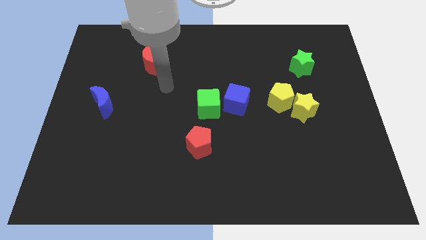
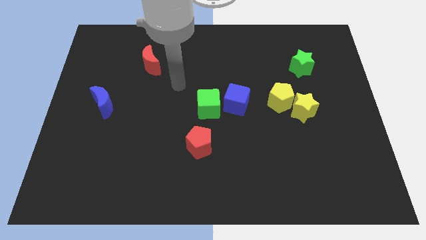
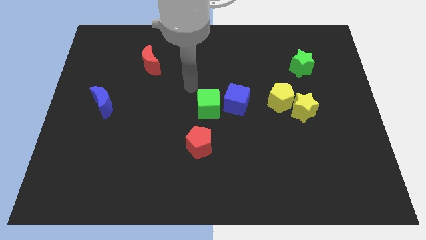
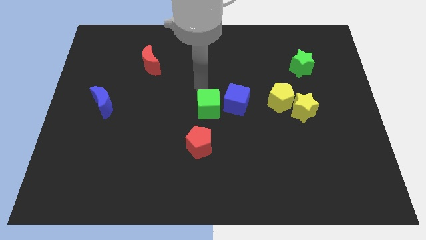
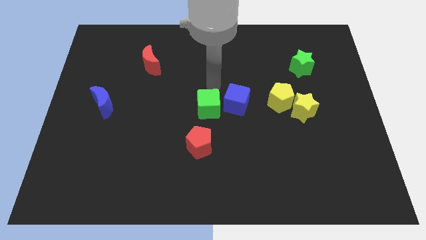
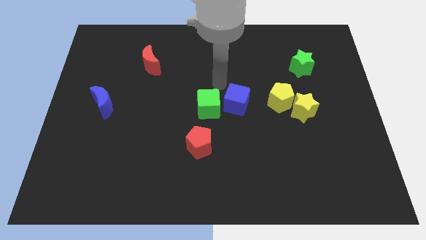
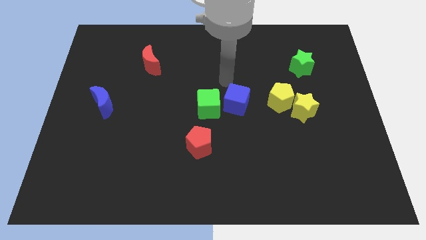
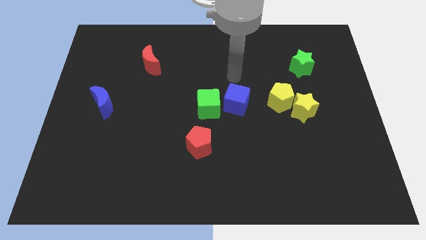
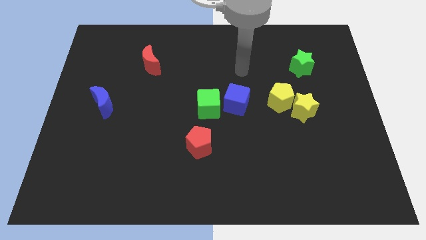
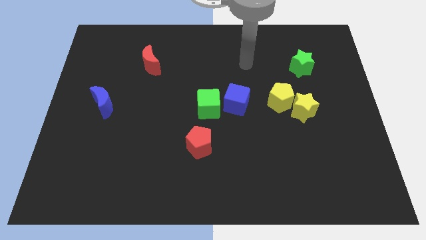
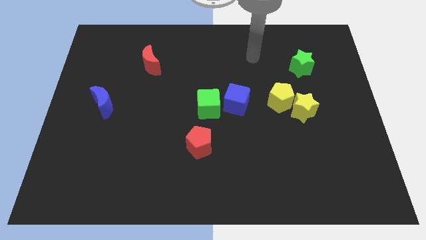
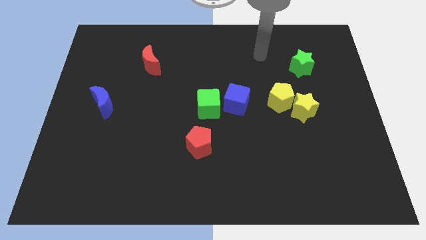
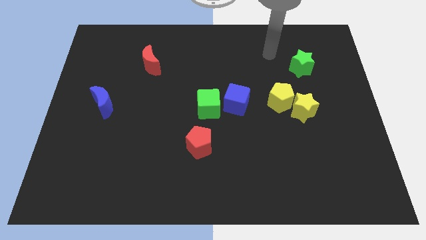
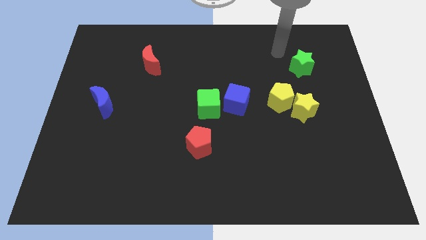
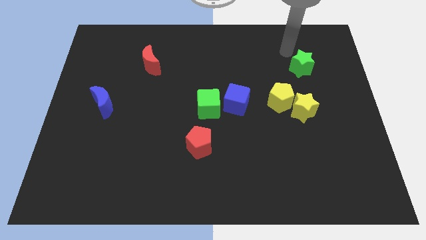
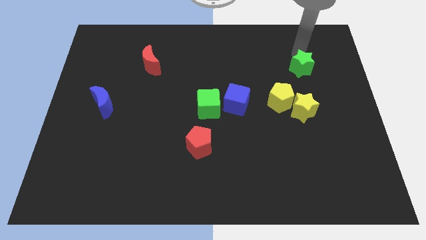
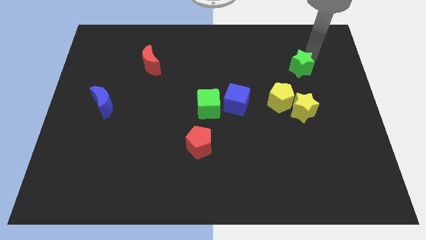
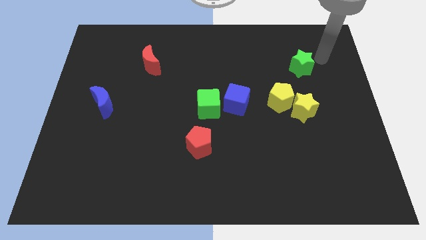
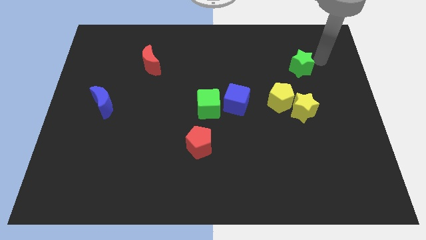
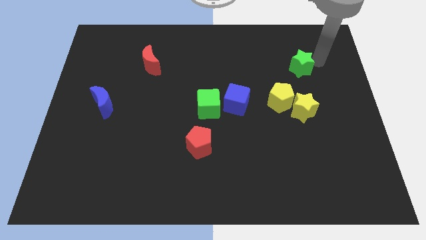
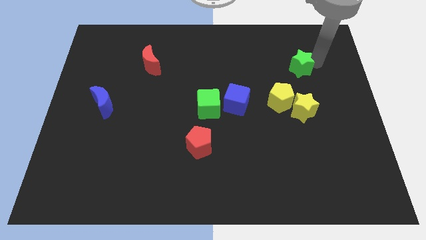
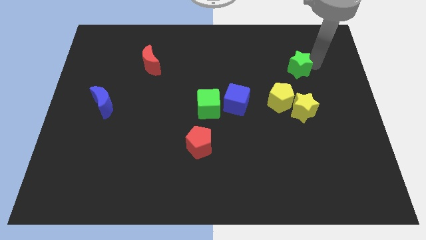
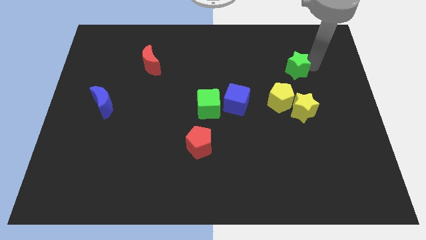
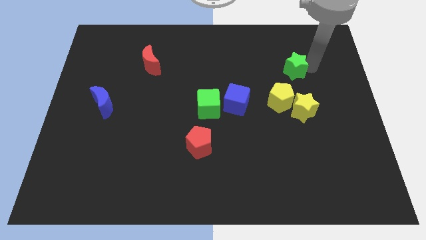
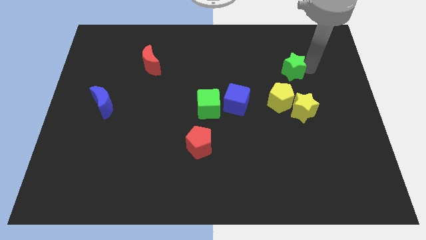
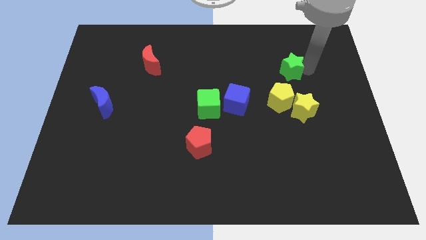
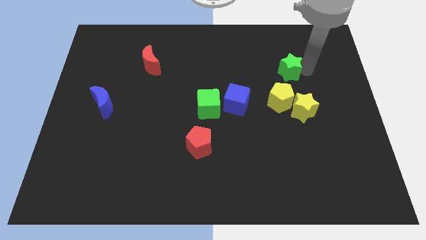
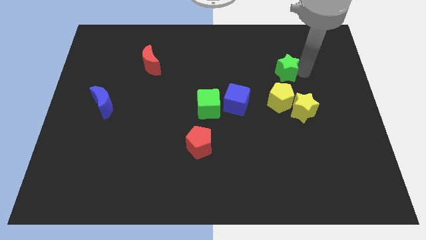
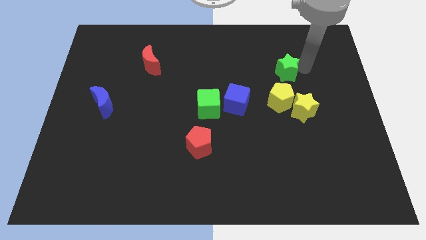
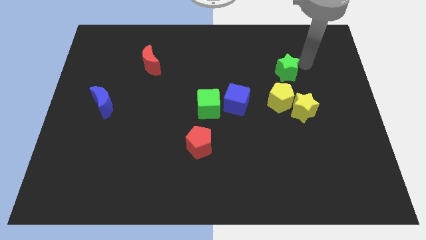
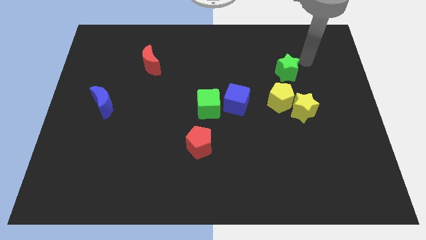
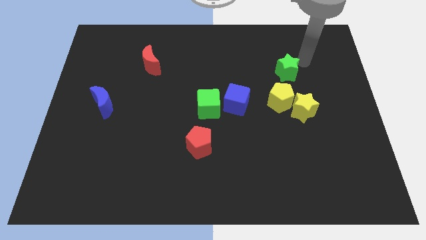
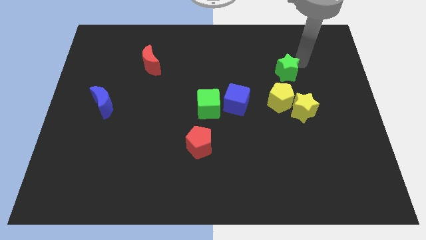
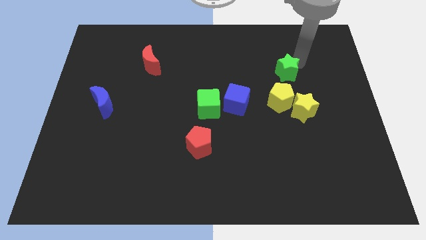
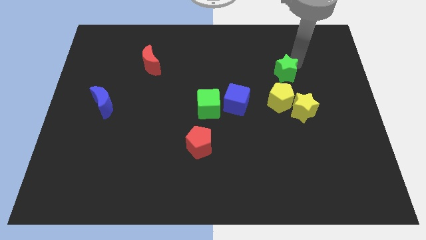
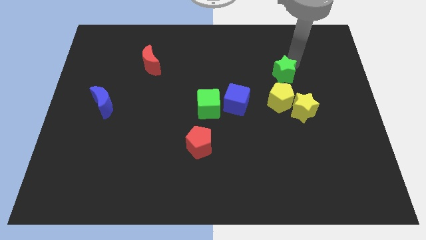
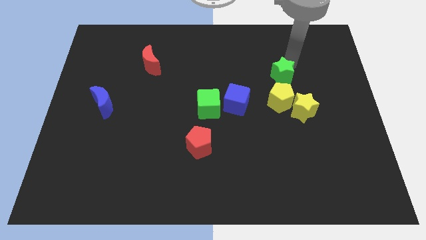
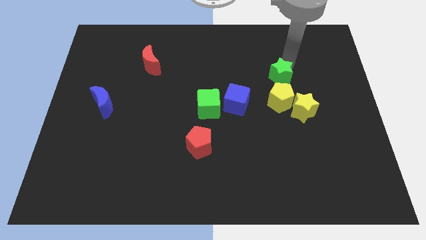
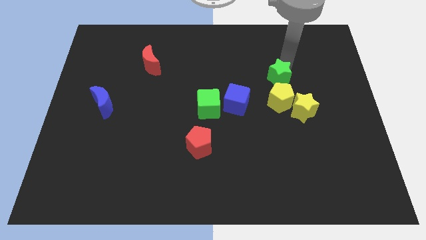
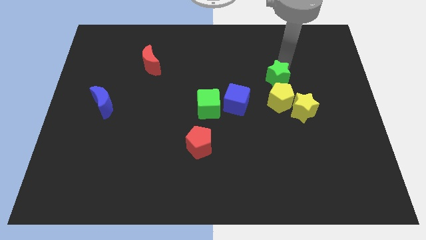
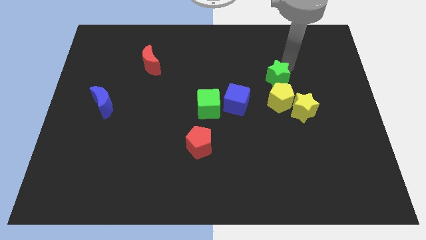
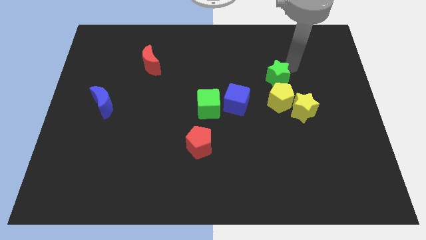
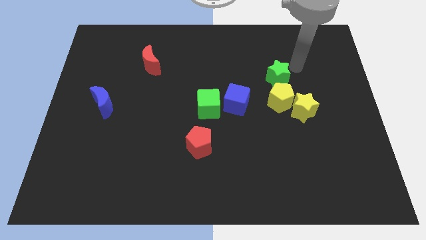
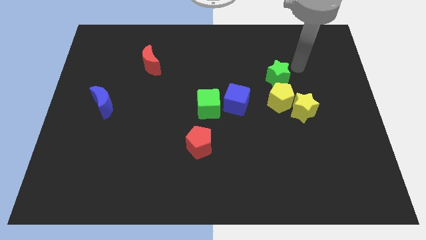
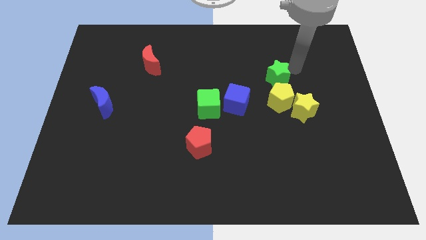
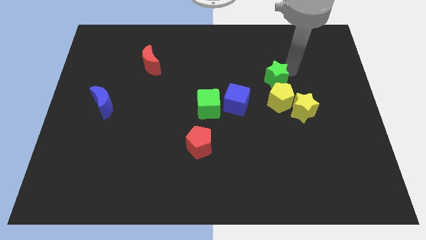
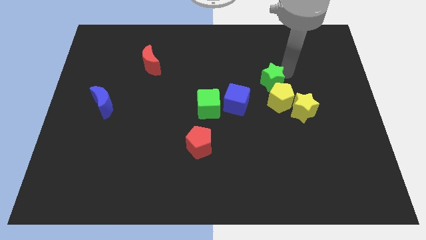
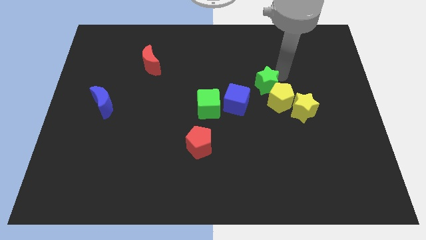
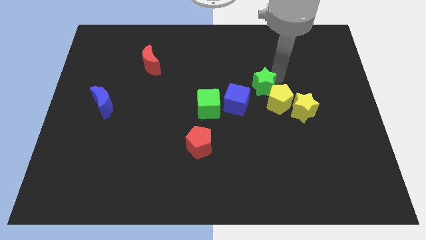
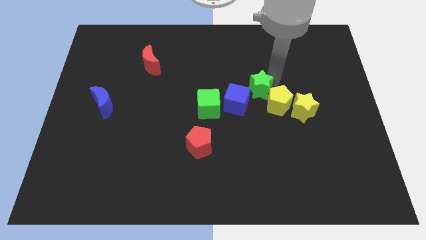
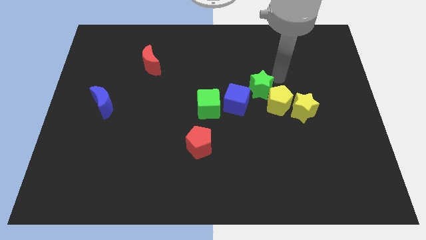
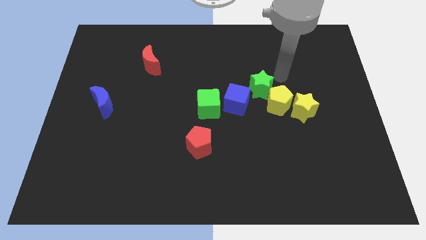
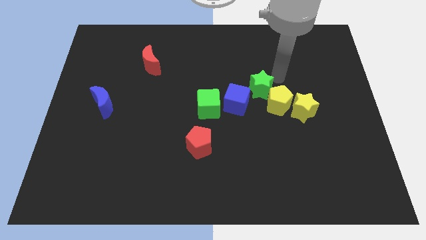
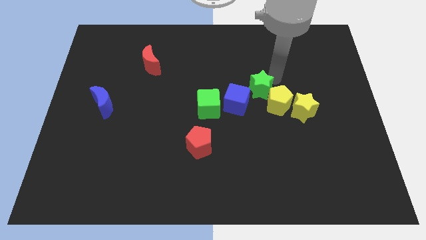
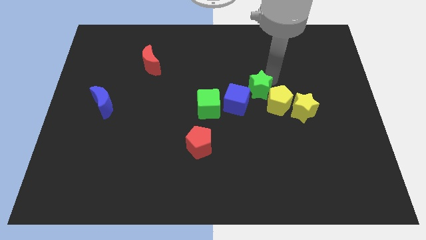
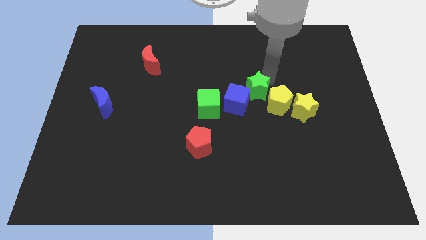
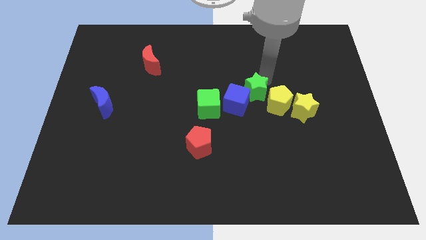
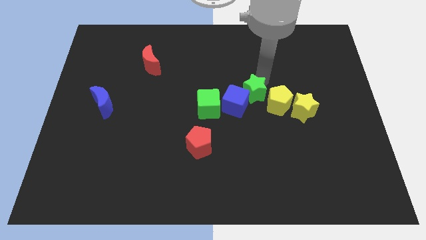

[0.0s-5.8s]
move the green star next to the blue cube

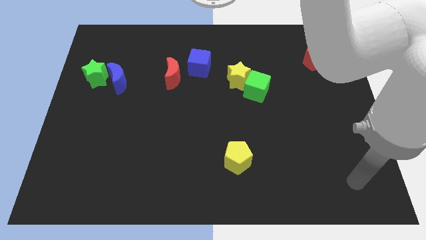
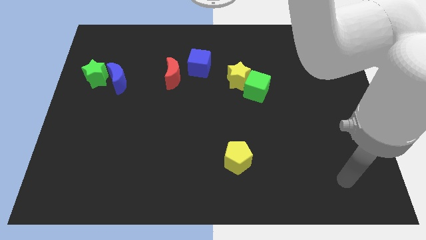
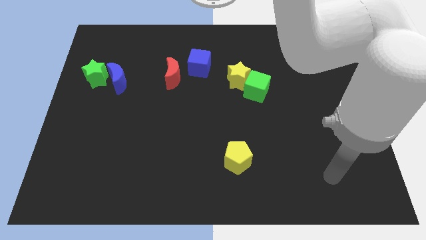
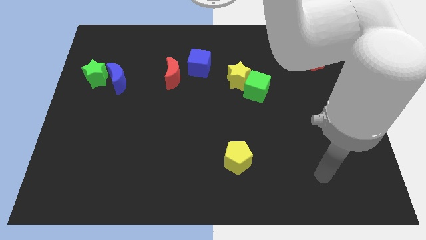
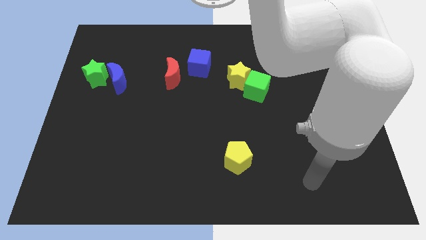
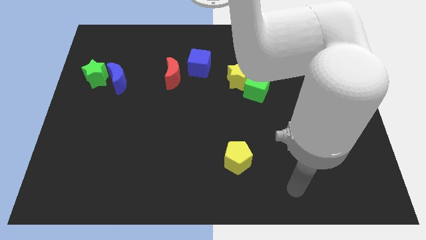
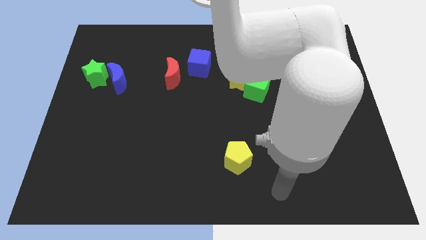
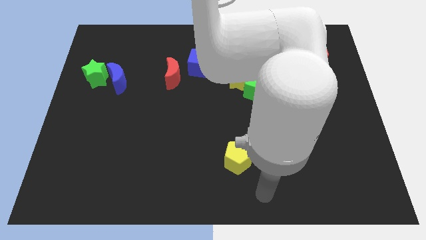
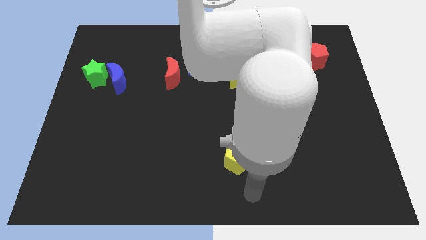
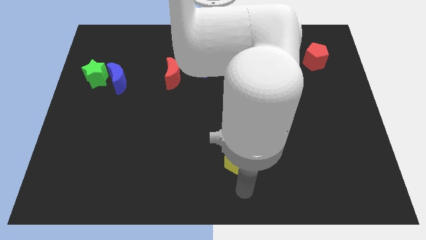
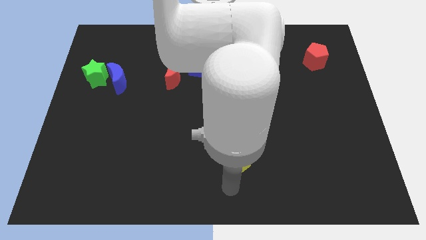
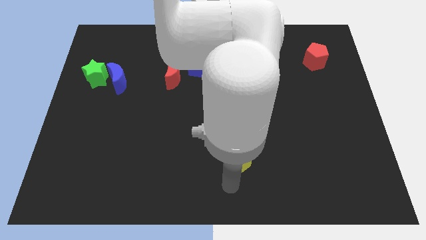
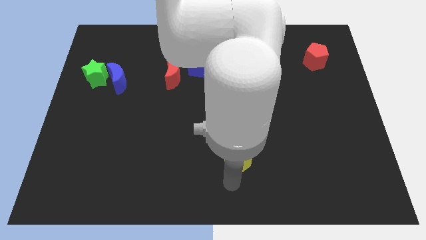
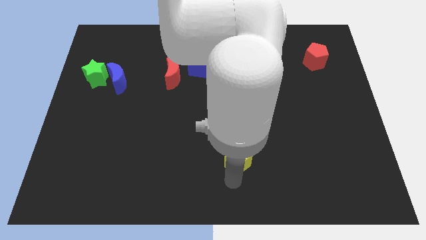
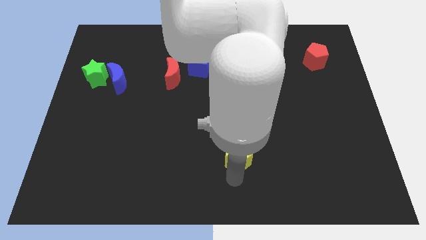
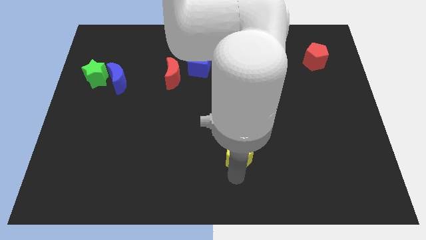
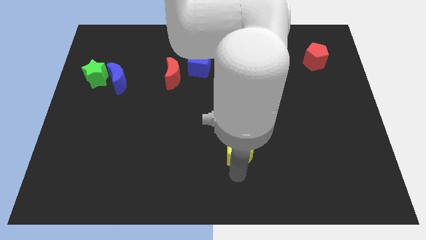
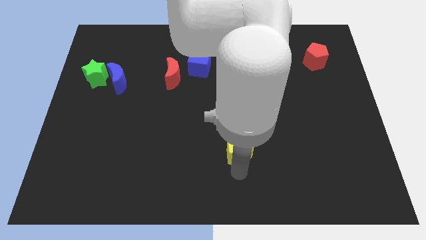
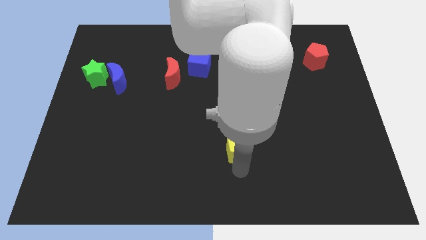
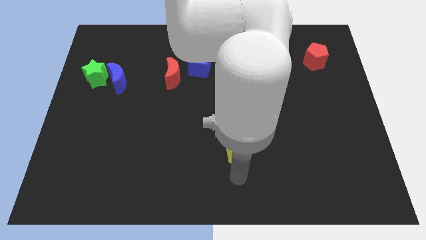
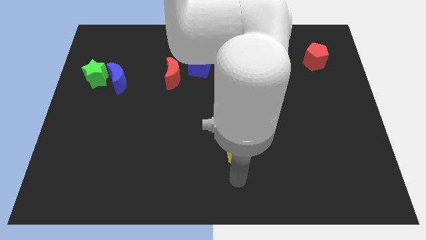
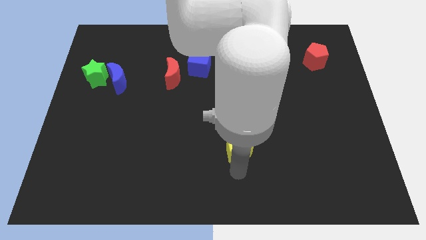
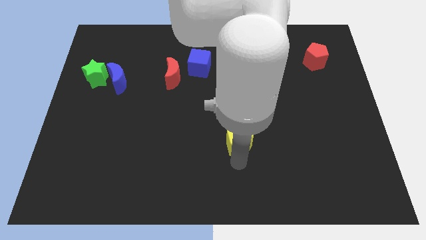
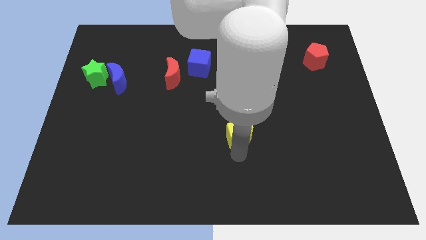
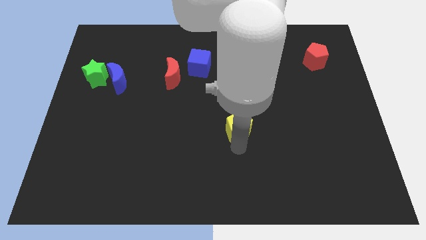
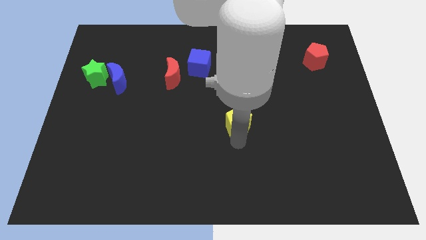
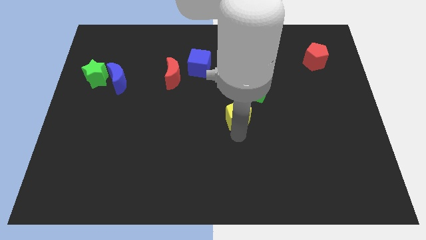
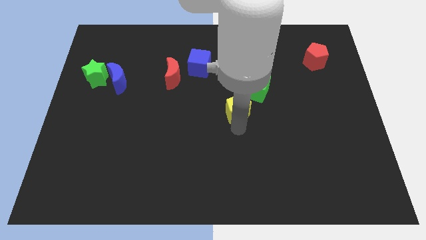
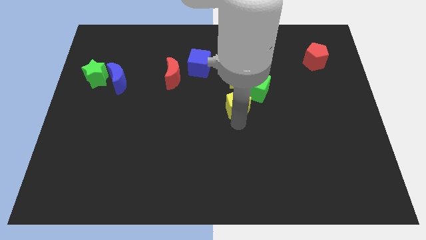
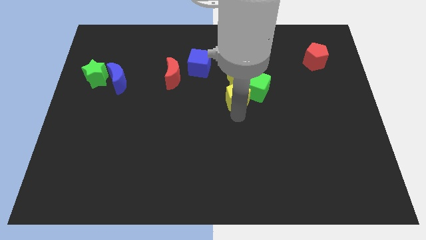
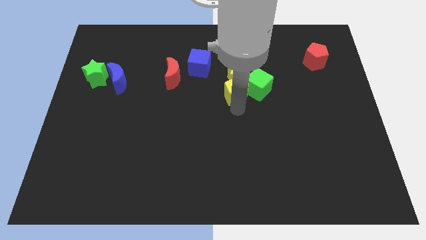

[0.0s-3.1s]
put the yellow pentagon next to the yellow star
